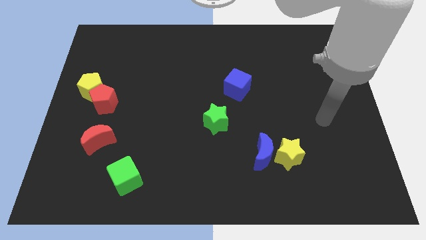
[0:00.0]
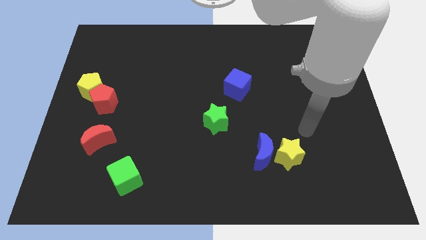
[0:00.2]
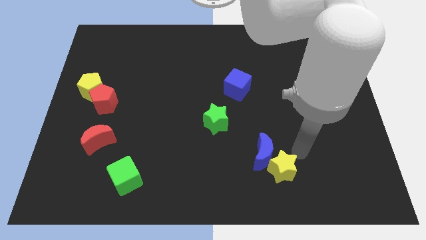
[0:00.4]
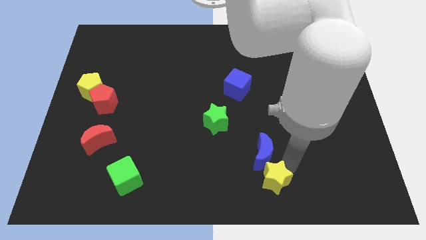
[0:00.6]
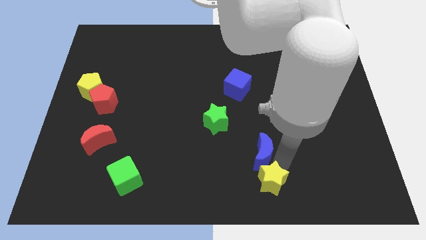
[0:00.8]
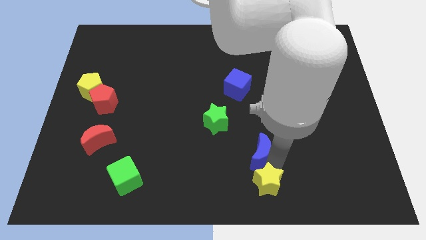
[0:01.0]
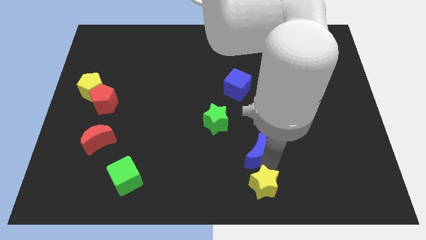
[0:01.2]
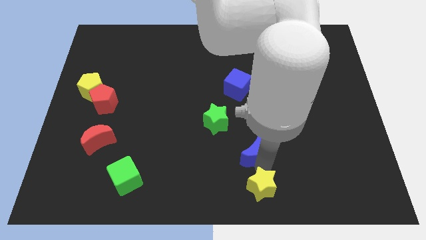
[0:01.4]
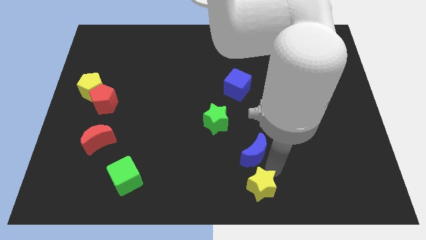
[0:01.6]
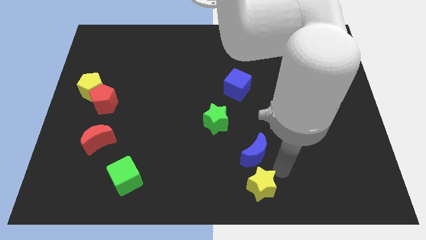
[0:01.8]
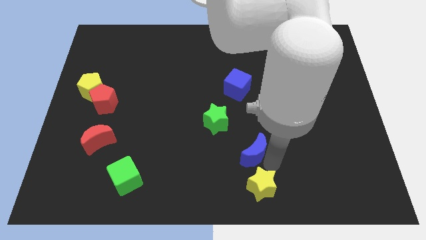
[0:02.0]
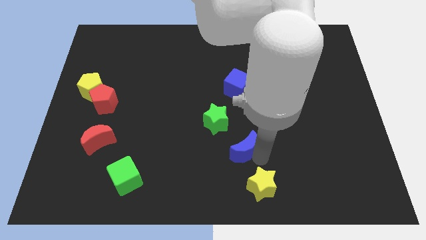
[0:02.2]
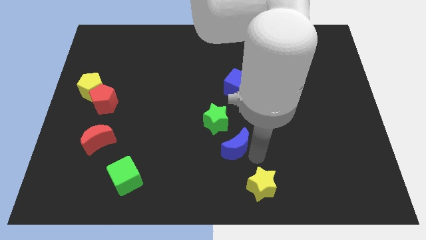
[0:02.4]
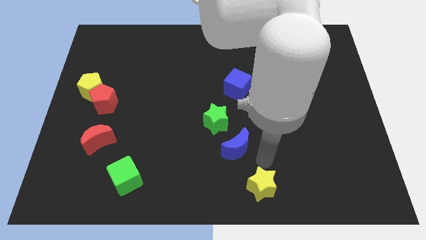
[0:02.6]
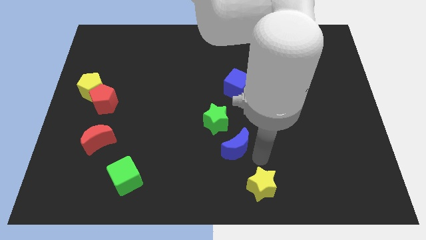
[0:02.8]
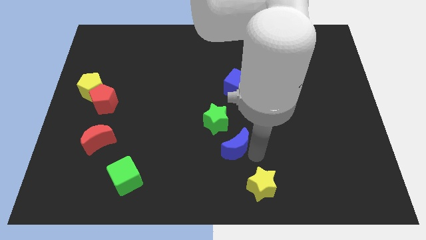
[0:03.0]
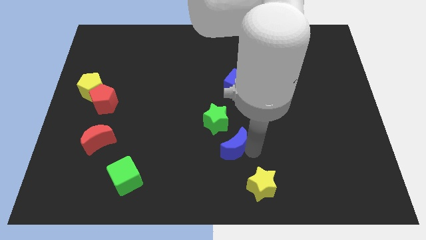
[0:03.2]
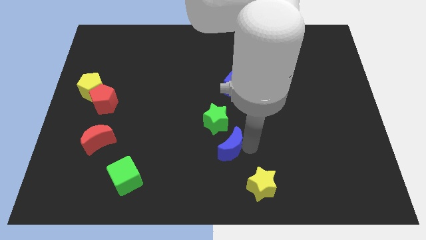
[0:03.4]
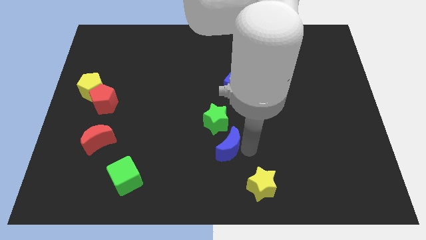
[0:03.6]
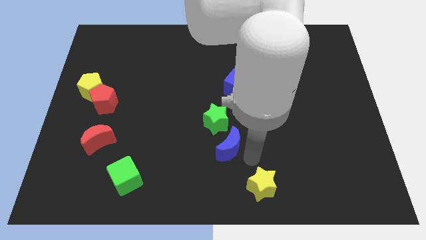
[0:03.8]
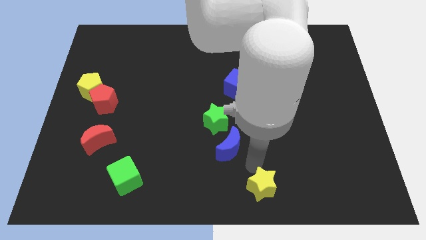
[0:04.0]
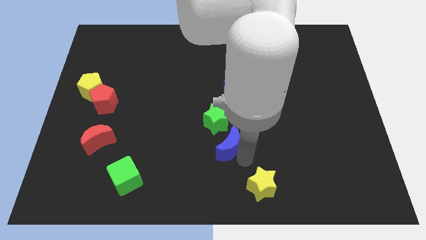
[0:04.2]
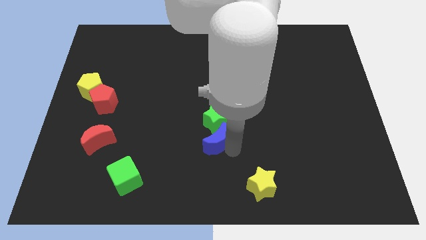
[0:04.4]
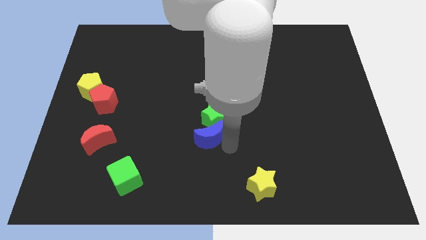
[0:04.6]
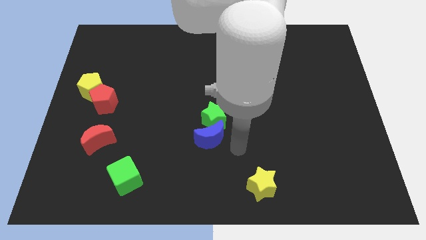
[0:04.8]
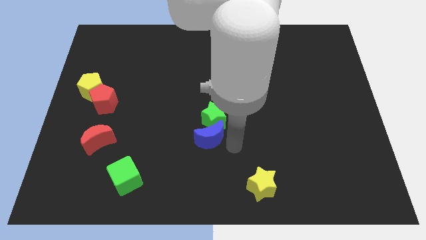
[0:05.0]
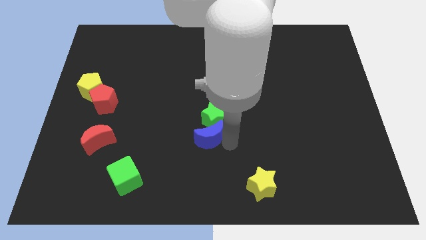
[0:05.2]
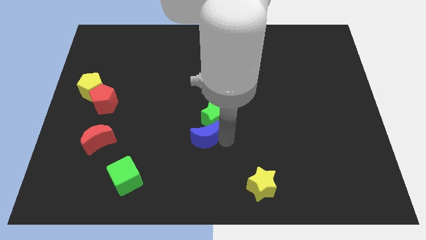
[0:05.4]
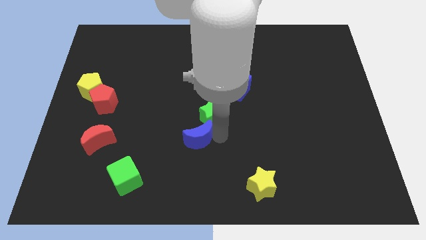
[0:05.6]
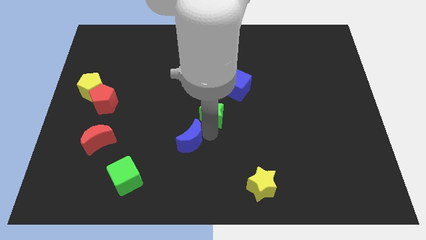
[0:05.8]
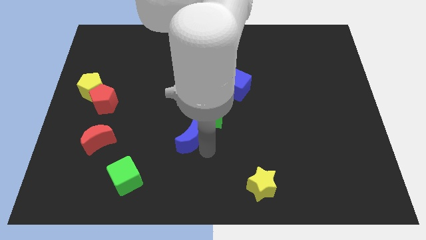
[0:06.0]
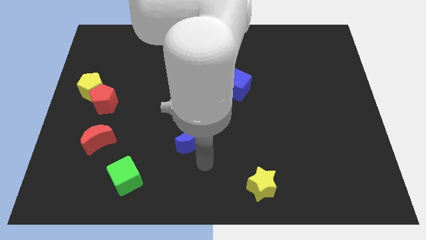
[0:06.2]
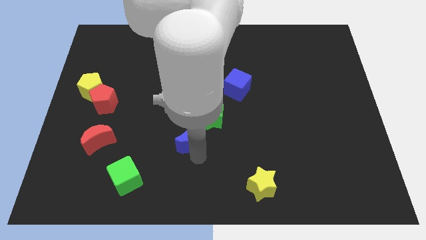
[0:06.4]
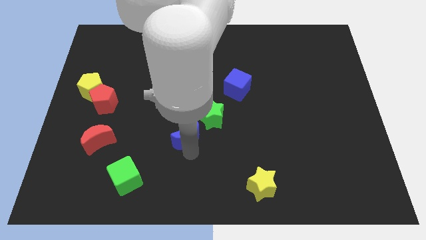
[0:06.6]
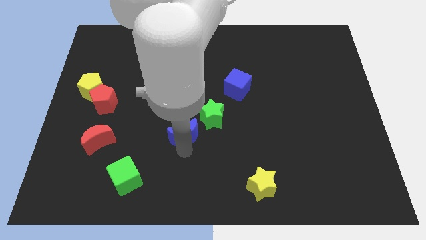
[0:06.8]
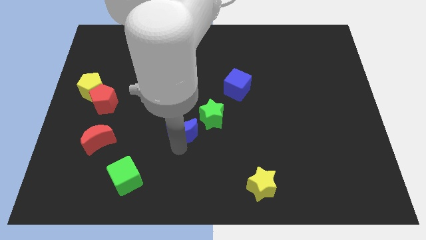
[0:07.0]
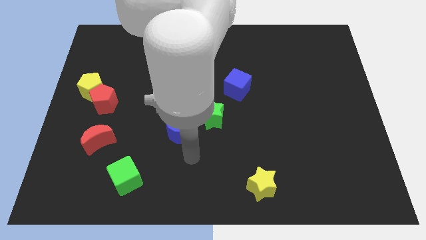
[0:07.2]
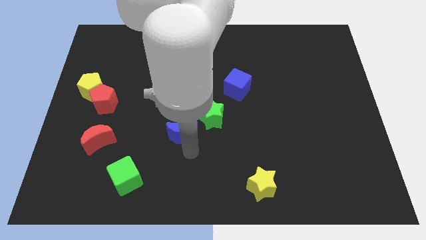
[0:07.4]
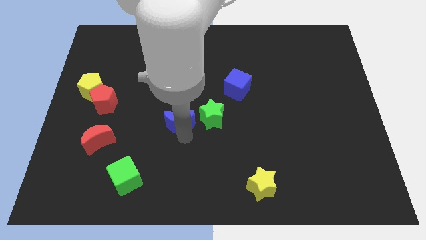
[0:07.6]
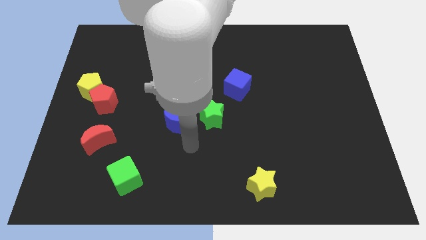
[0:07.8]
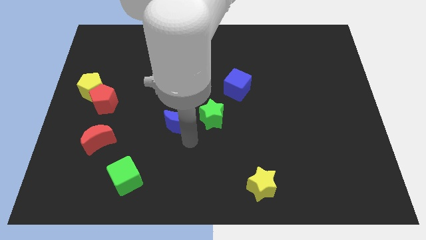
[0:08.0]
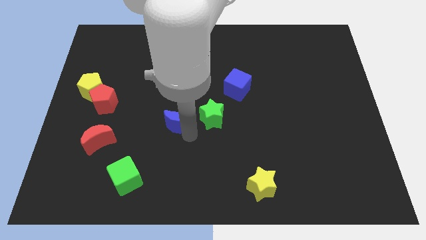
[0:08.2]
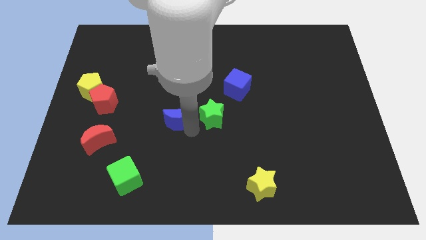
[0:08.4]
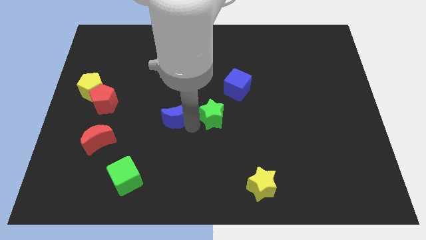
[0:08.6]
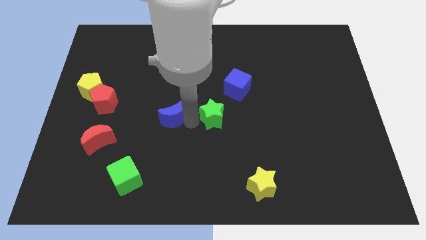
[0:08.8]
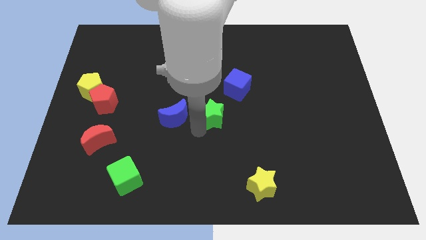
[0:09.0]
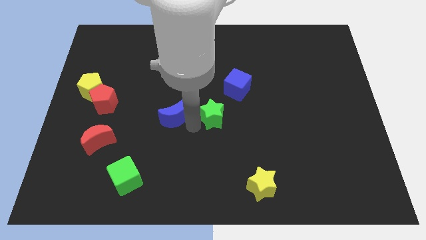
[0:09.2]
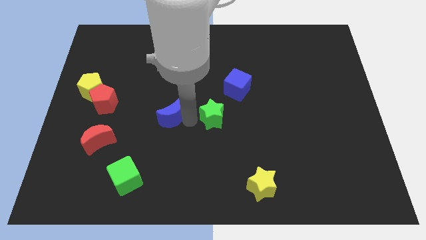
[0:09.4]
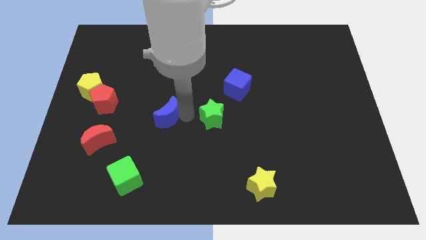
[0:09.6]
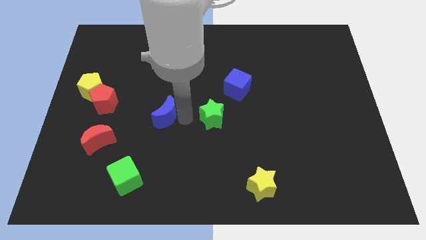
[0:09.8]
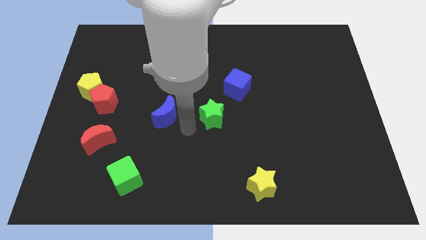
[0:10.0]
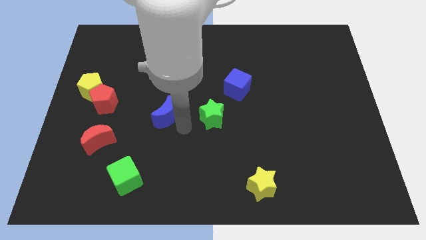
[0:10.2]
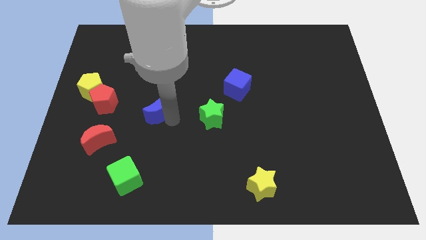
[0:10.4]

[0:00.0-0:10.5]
move the blue moon just right of the red pentagon

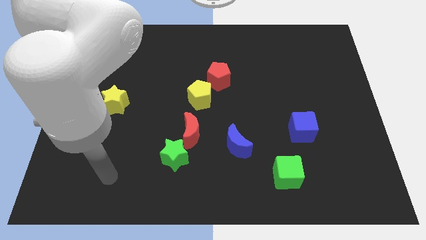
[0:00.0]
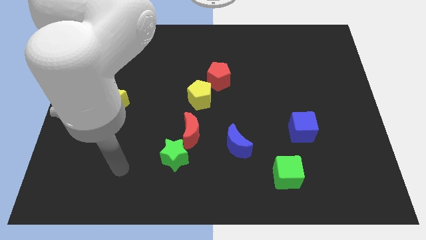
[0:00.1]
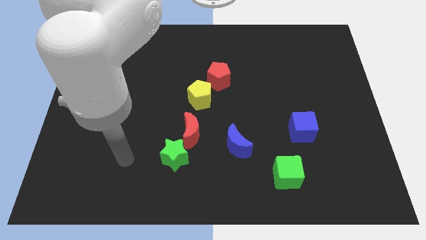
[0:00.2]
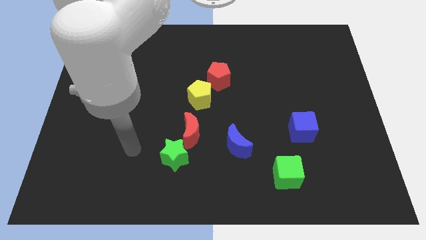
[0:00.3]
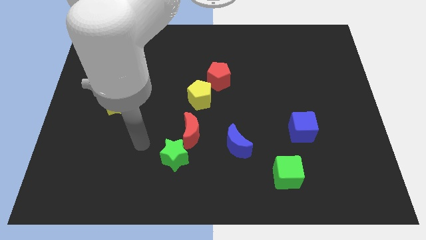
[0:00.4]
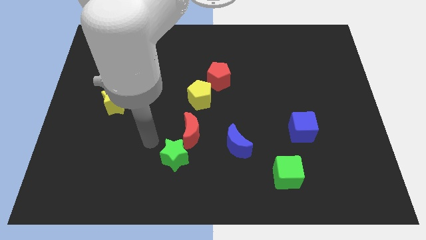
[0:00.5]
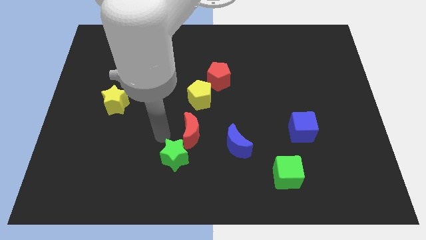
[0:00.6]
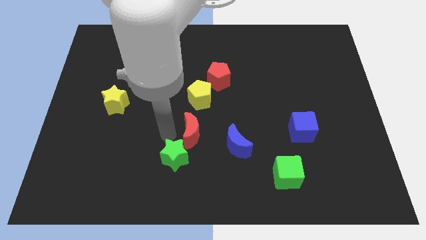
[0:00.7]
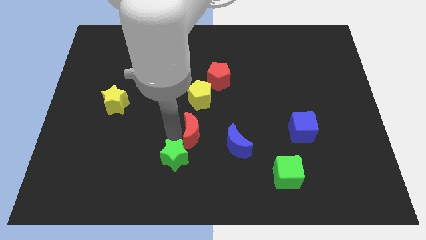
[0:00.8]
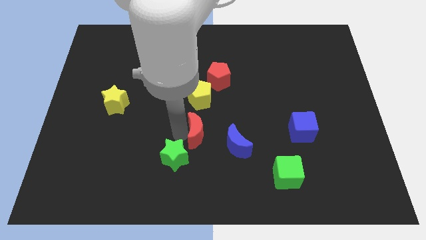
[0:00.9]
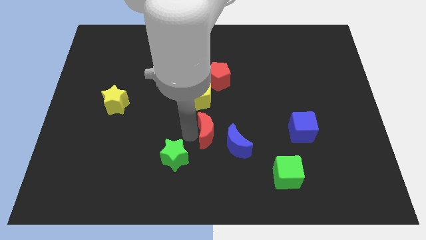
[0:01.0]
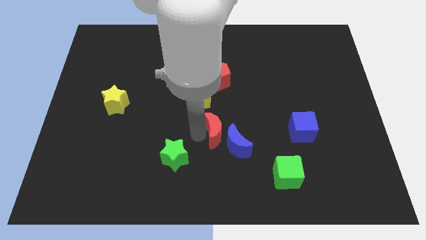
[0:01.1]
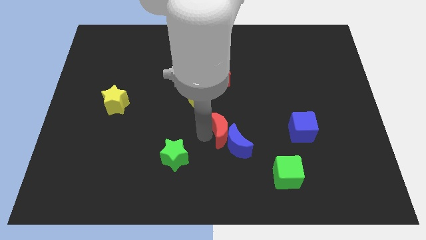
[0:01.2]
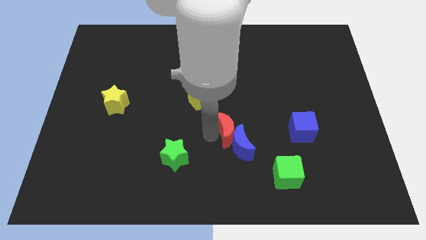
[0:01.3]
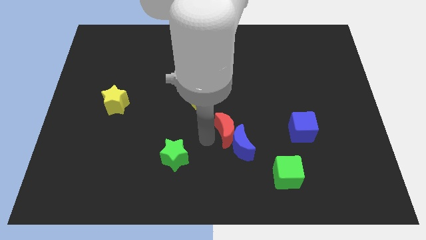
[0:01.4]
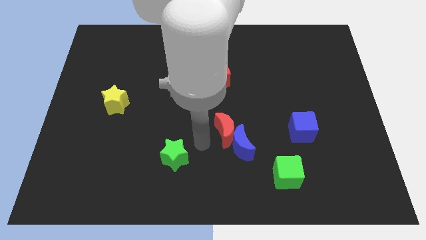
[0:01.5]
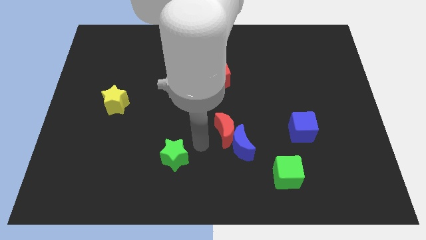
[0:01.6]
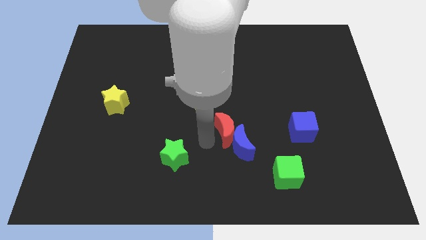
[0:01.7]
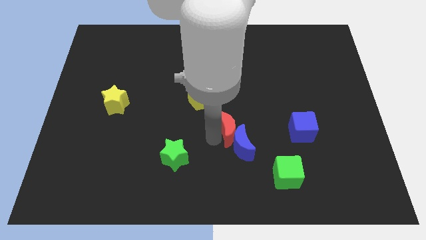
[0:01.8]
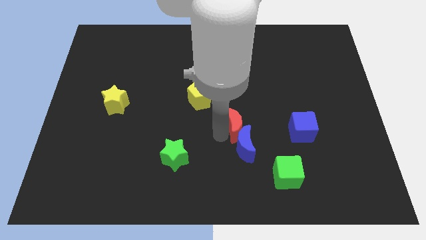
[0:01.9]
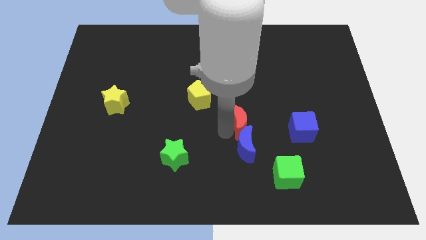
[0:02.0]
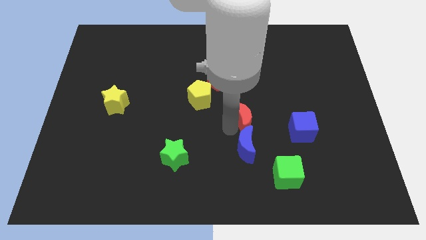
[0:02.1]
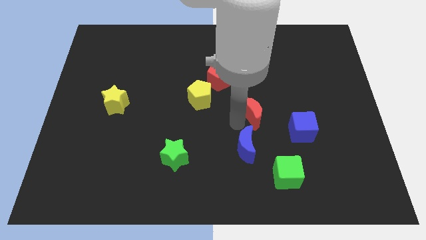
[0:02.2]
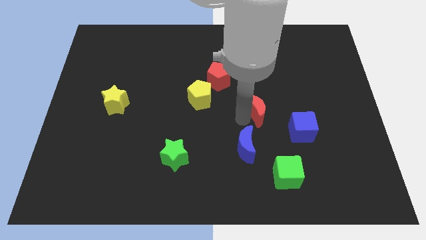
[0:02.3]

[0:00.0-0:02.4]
put the red moon to the top left of the blue cube

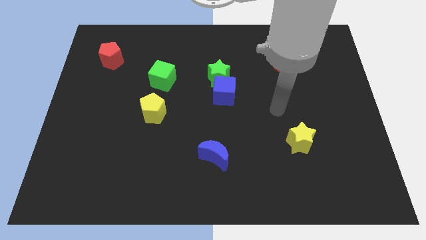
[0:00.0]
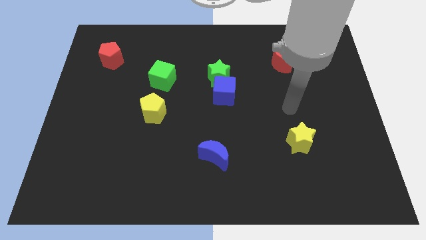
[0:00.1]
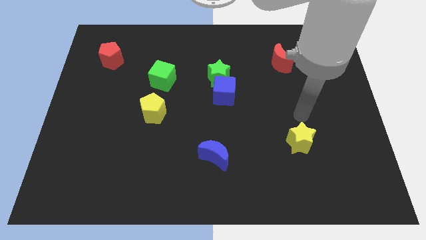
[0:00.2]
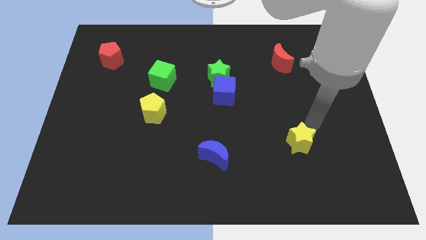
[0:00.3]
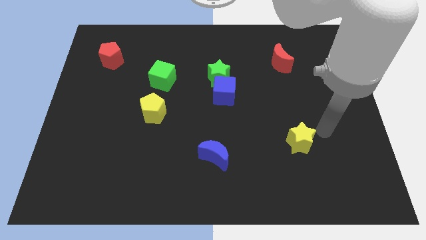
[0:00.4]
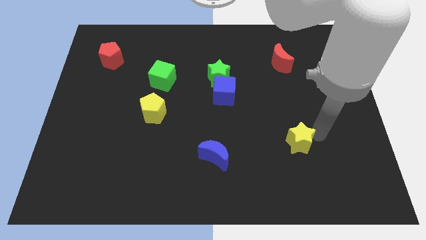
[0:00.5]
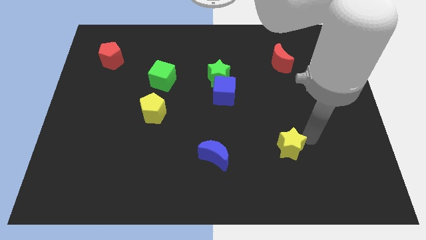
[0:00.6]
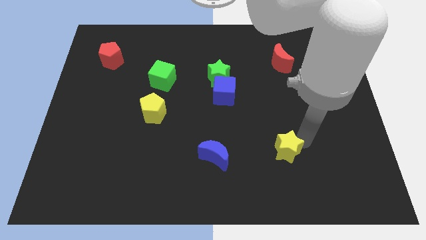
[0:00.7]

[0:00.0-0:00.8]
push the yellow star right of the blue moon
